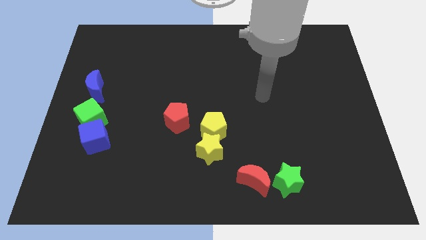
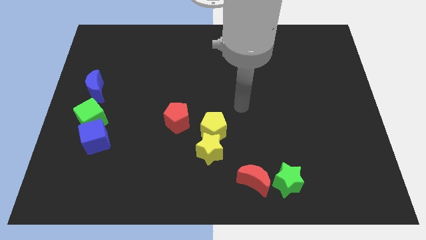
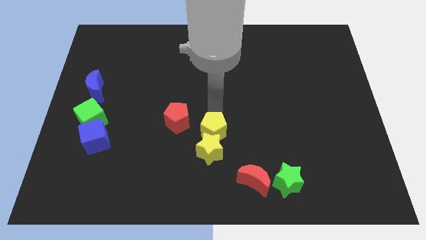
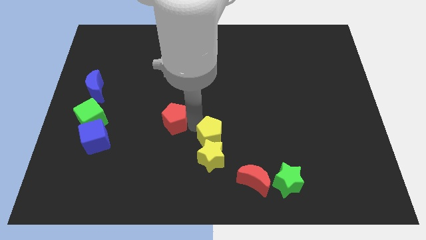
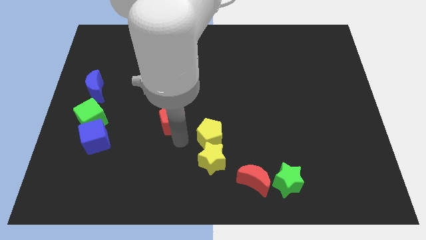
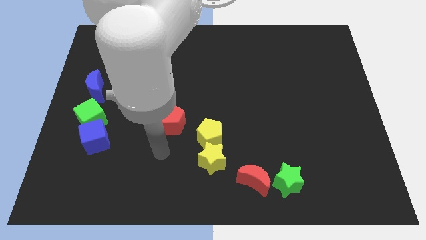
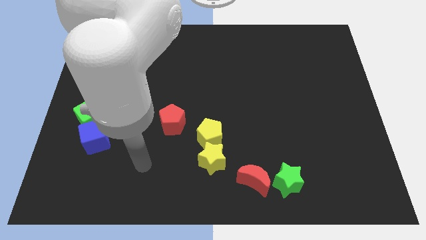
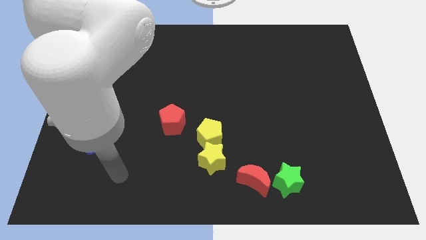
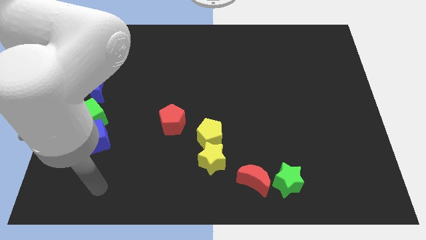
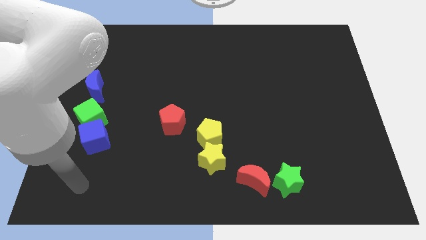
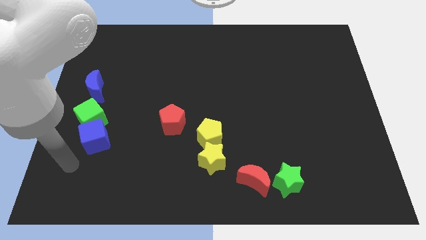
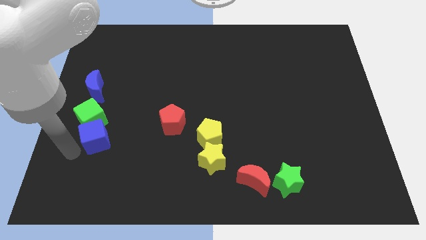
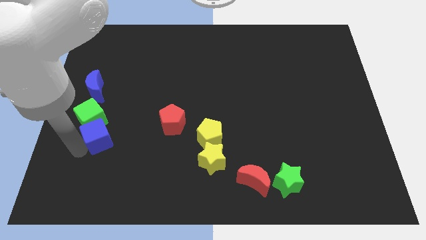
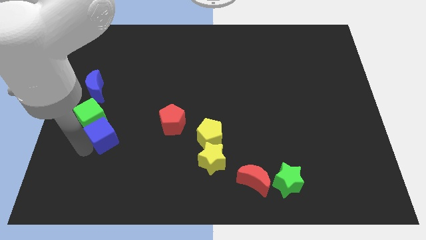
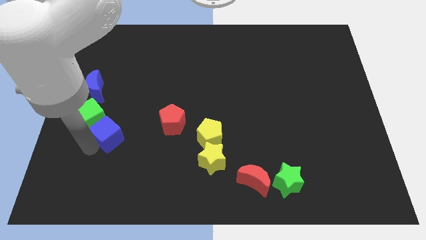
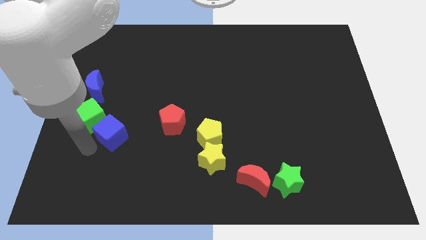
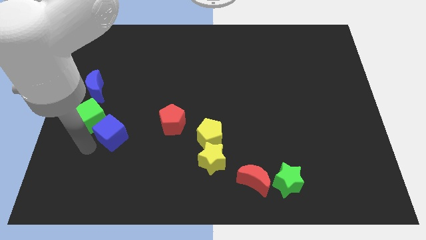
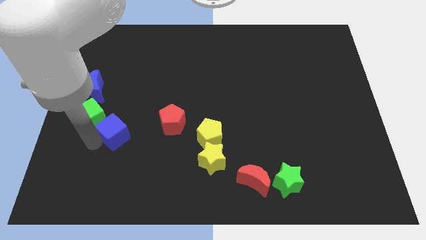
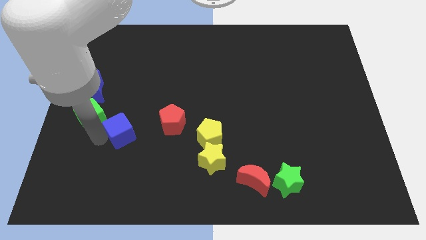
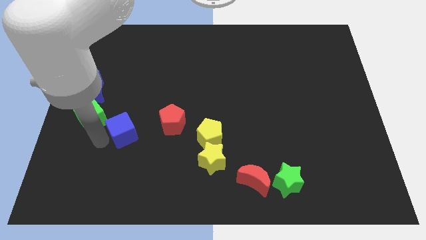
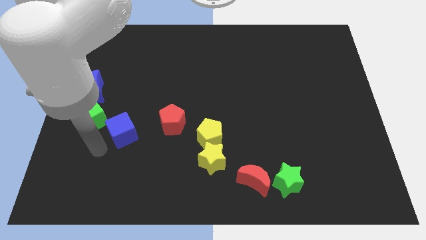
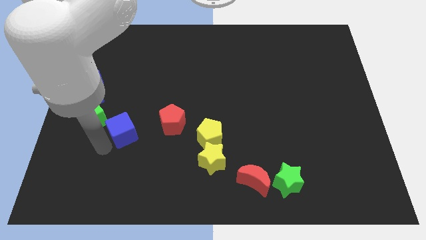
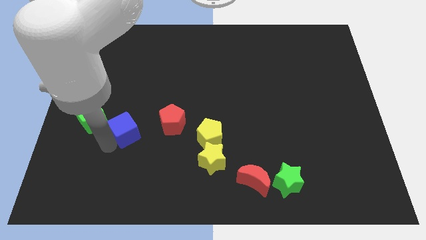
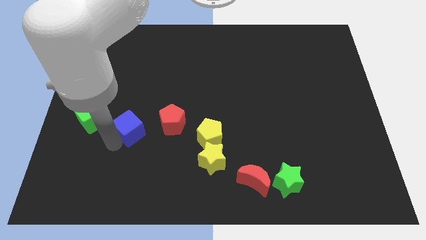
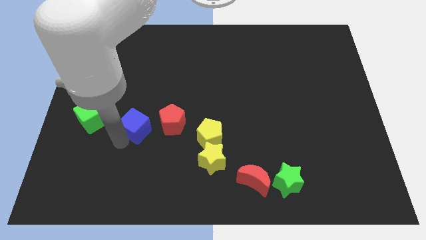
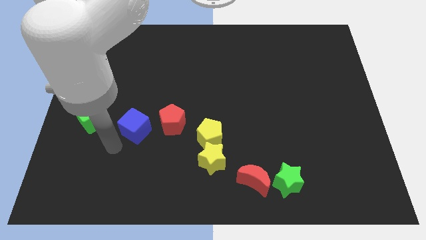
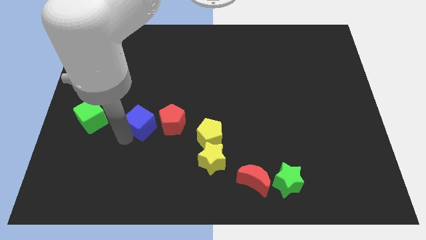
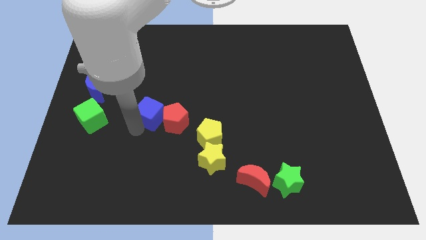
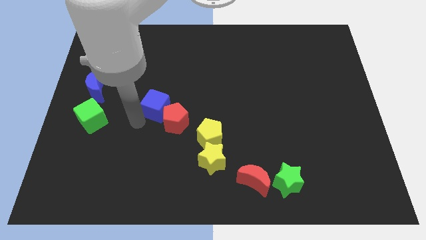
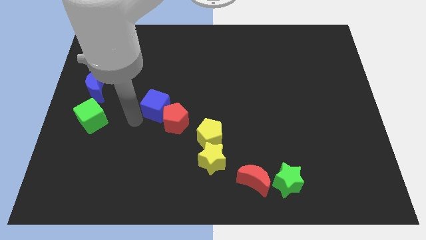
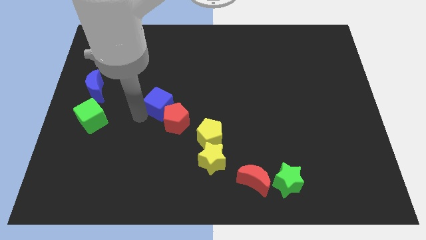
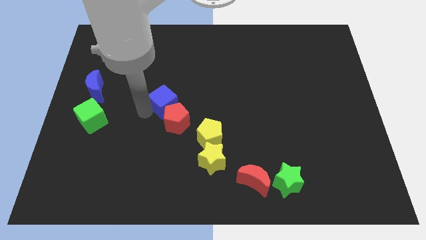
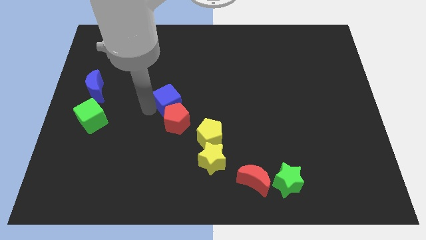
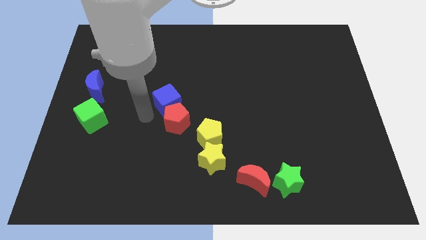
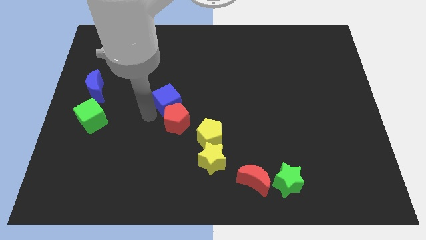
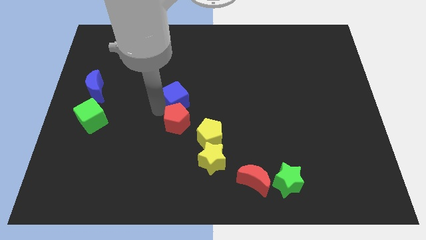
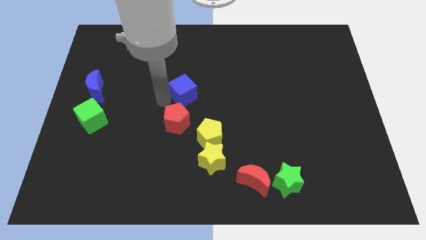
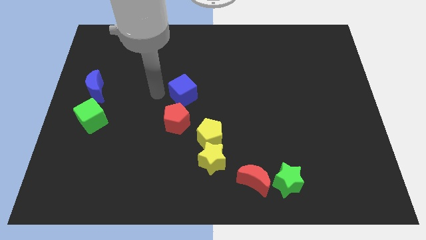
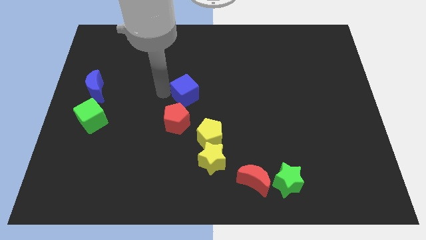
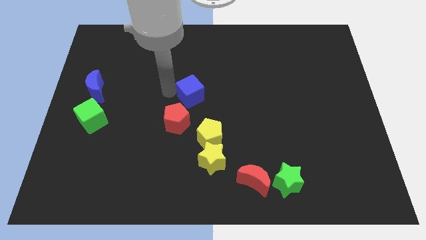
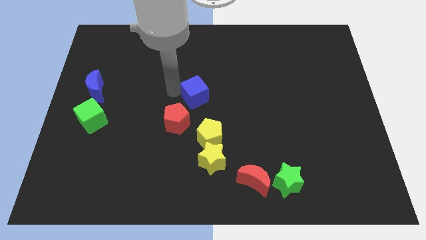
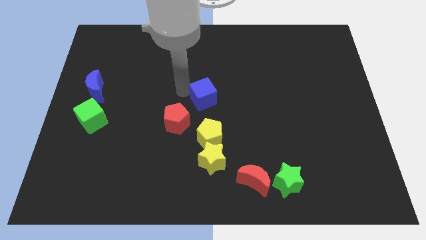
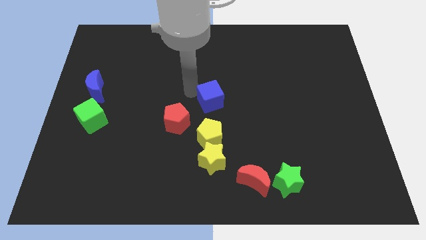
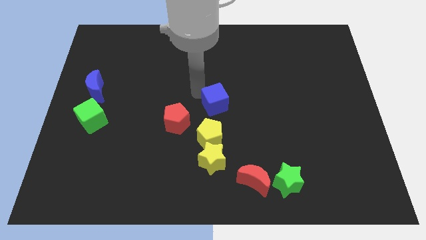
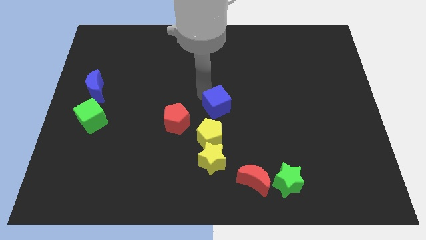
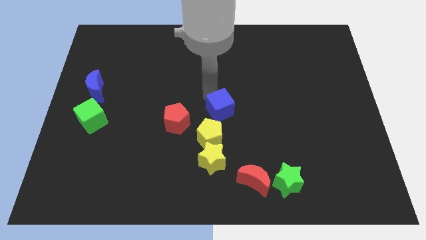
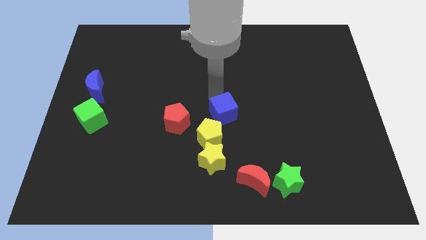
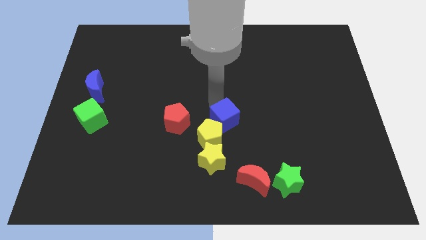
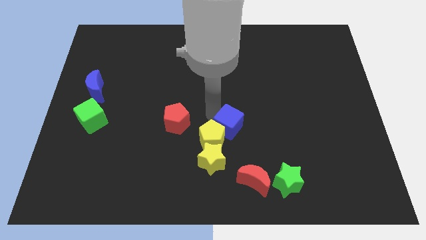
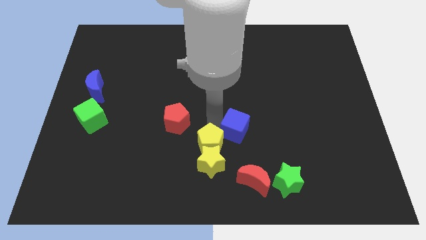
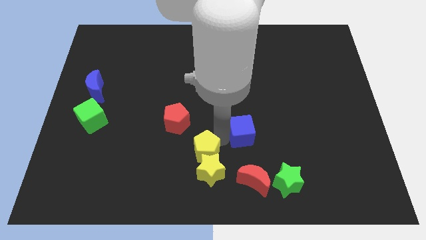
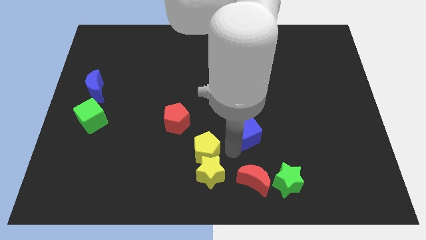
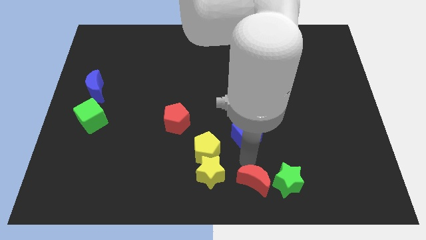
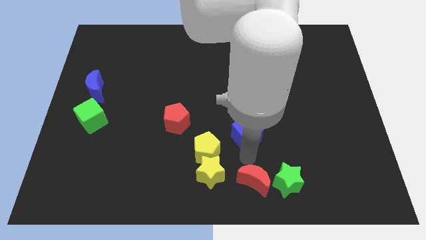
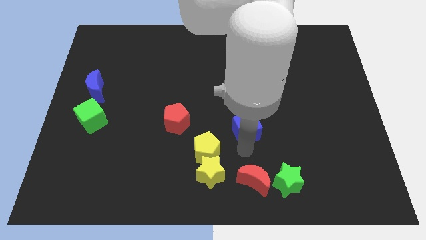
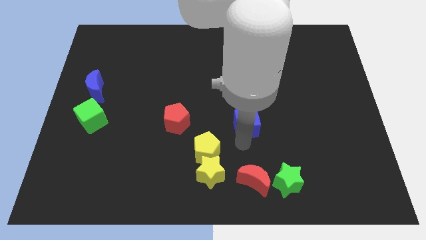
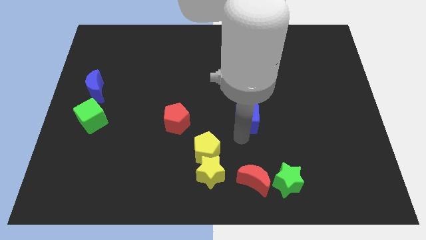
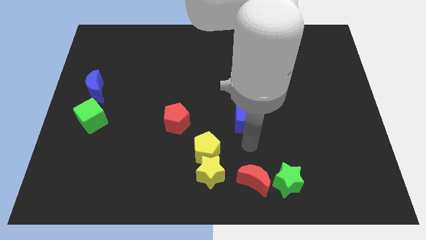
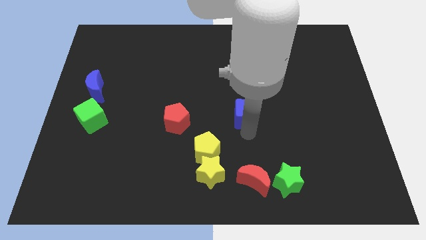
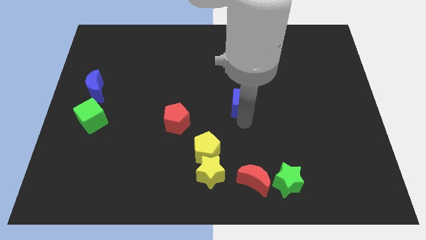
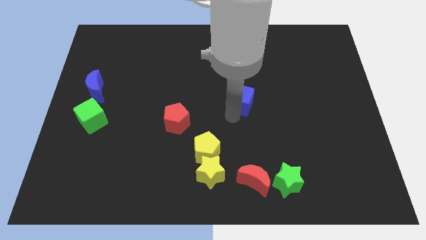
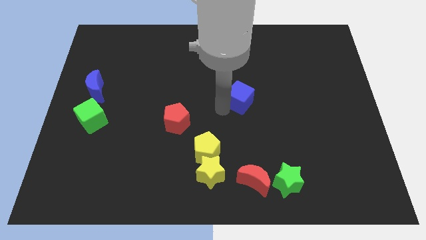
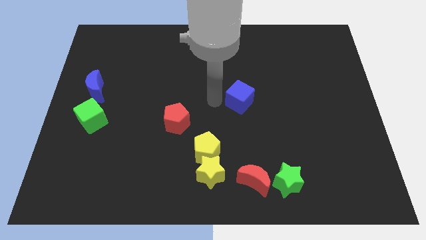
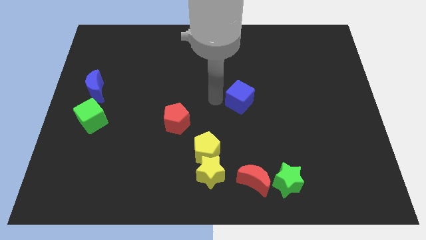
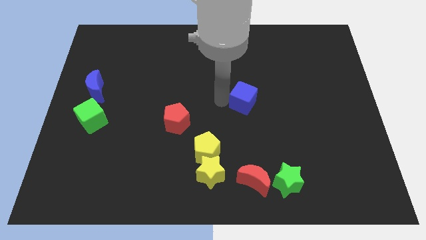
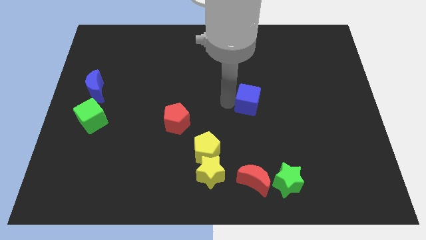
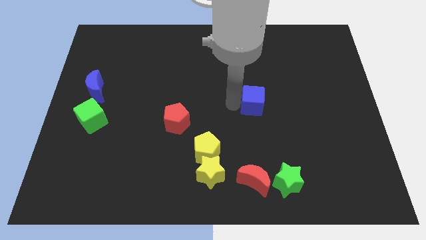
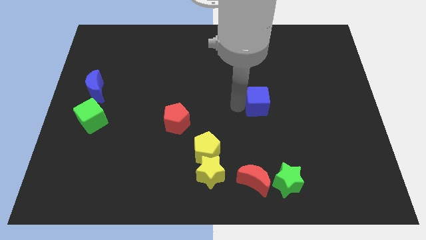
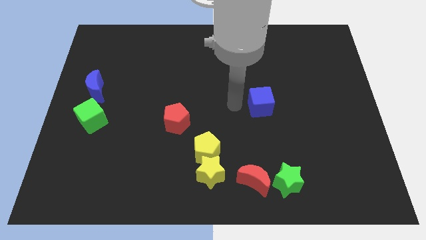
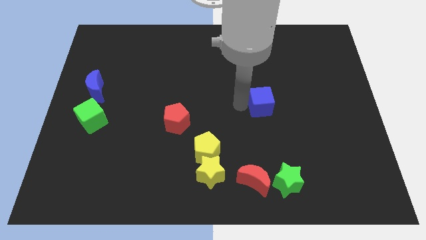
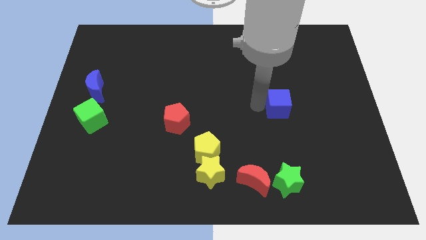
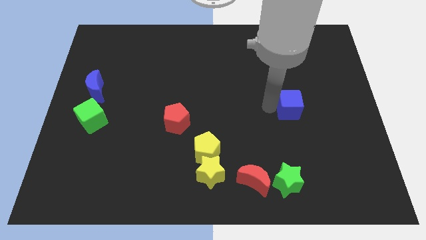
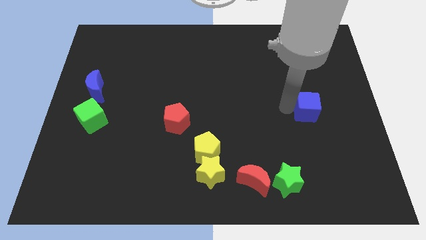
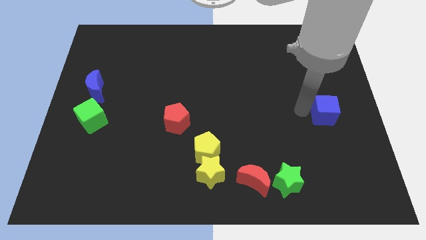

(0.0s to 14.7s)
put the blue cube to the right side of the board
